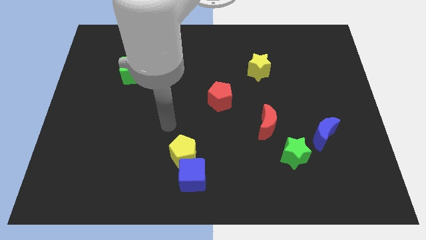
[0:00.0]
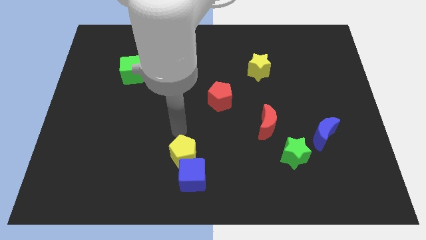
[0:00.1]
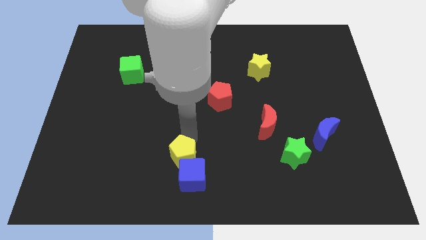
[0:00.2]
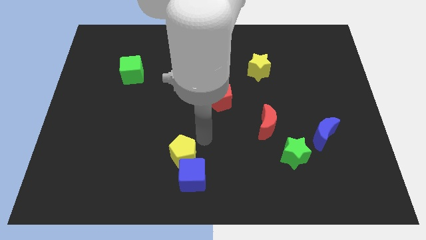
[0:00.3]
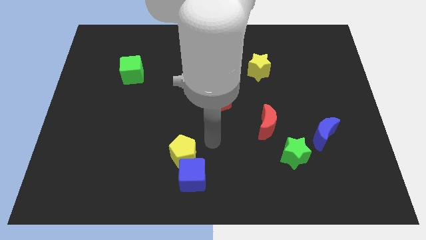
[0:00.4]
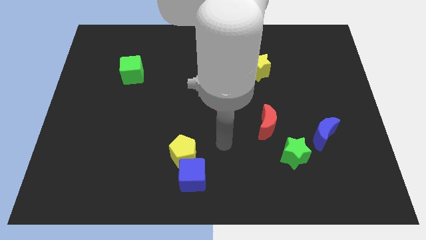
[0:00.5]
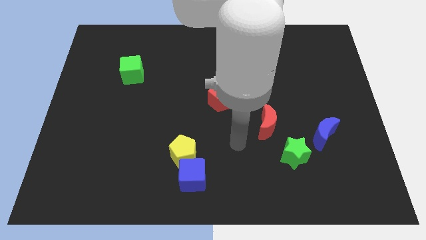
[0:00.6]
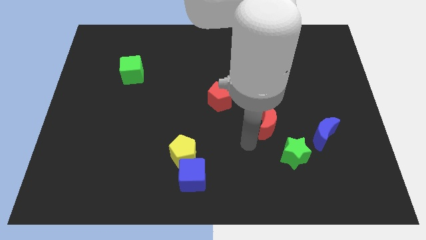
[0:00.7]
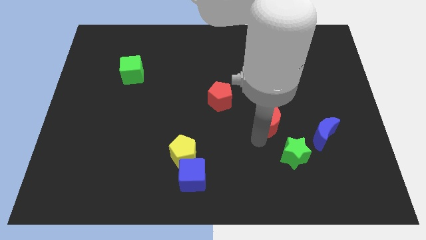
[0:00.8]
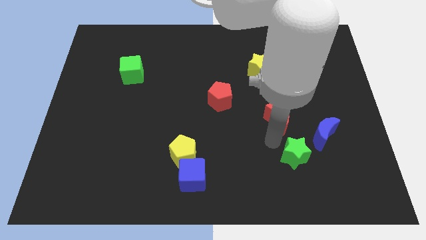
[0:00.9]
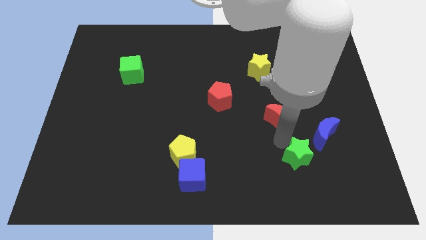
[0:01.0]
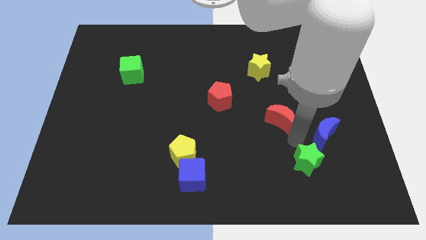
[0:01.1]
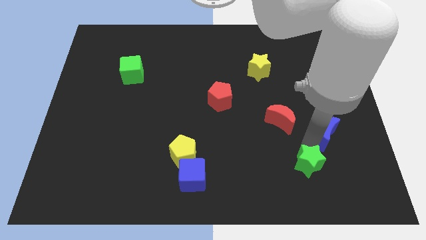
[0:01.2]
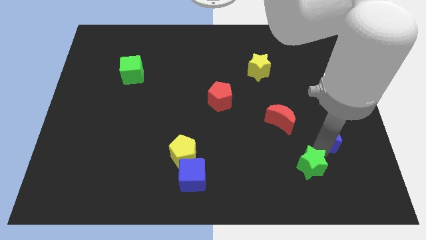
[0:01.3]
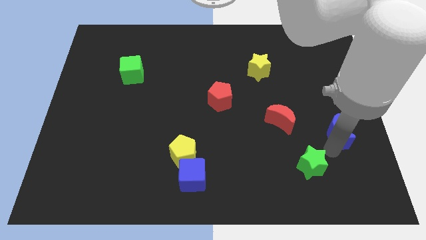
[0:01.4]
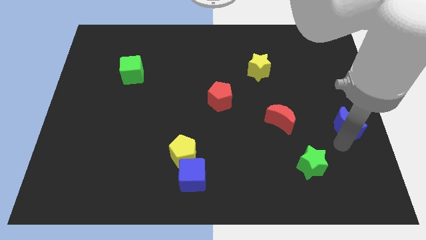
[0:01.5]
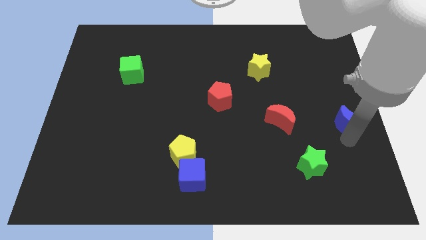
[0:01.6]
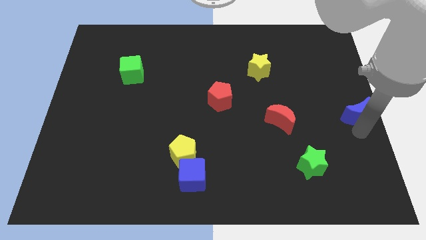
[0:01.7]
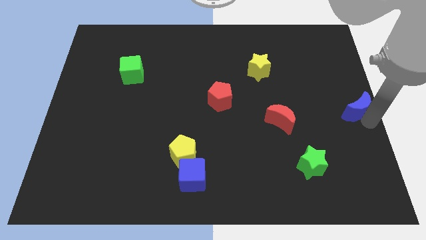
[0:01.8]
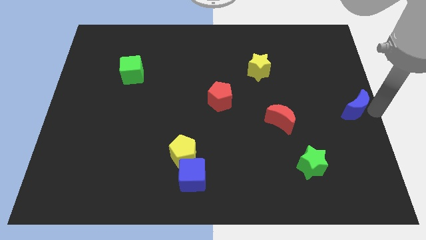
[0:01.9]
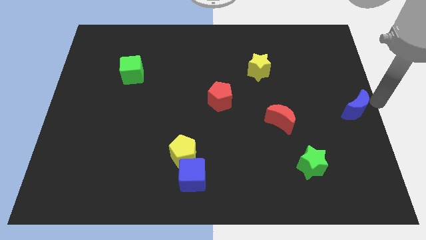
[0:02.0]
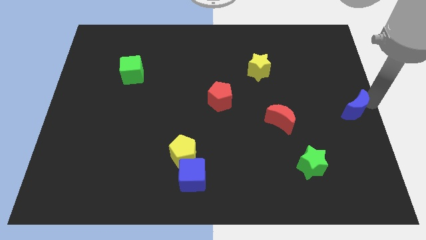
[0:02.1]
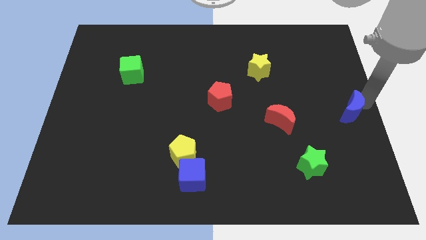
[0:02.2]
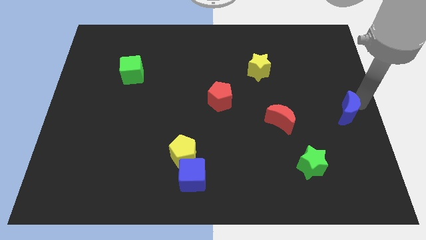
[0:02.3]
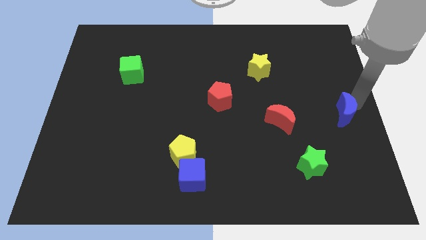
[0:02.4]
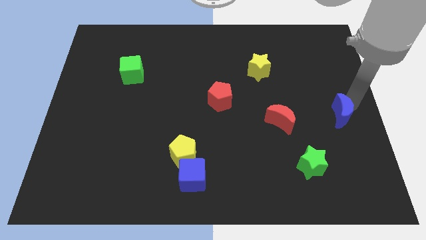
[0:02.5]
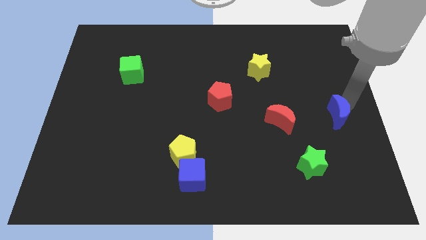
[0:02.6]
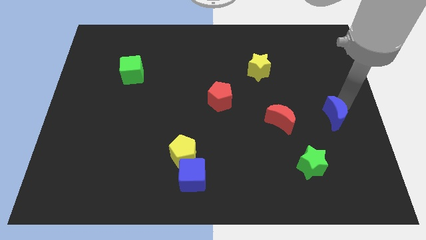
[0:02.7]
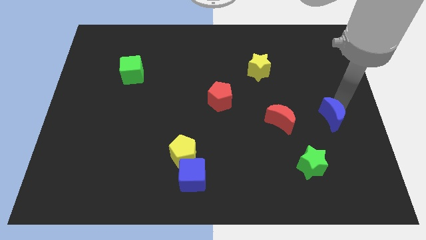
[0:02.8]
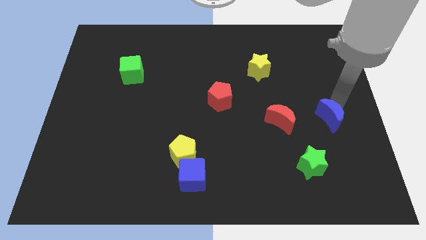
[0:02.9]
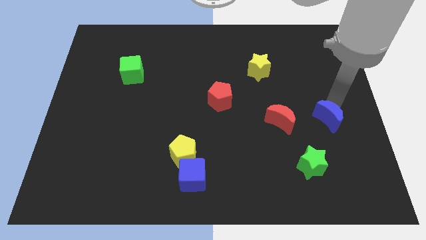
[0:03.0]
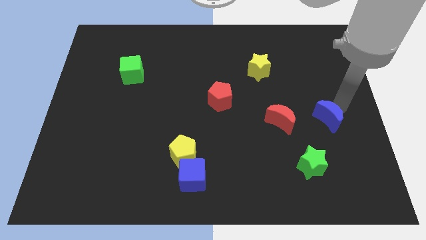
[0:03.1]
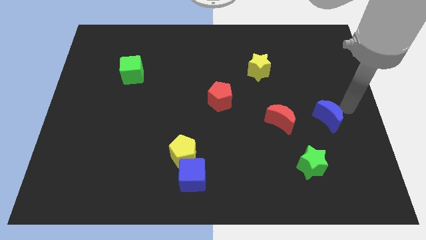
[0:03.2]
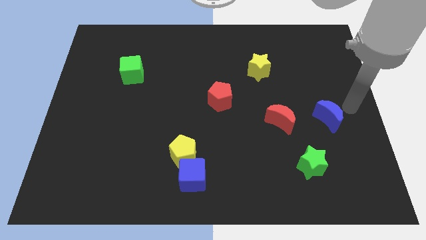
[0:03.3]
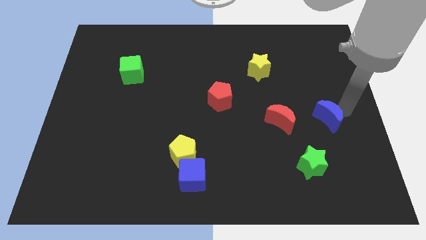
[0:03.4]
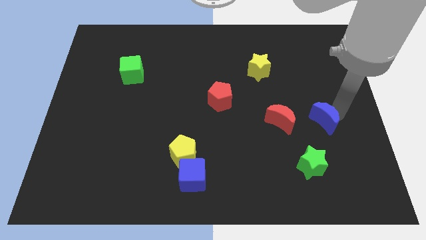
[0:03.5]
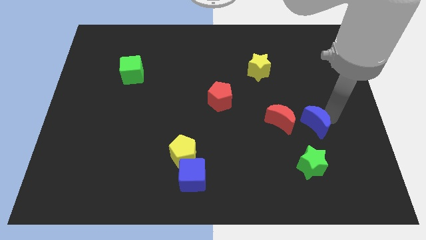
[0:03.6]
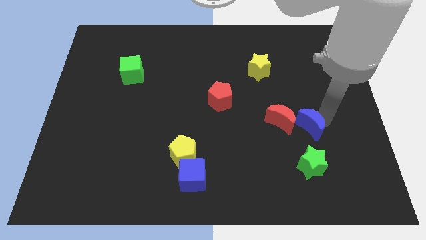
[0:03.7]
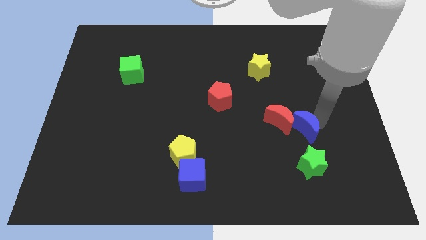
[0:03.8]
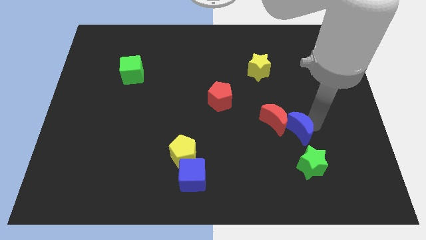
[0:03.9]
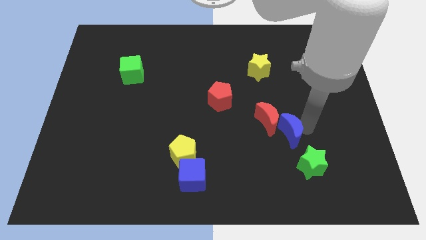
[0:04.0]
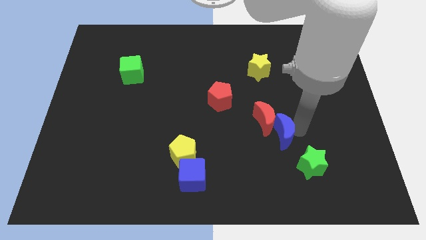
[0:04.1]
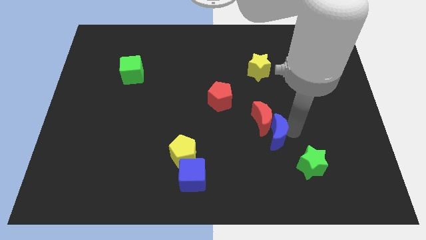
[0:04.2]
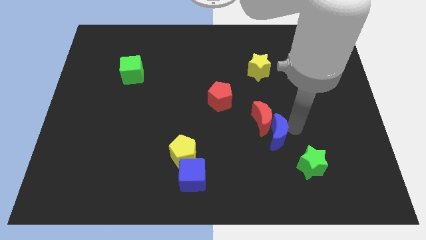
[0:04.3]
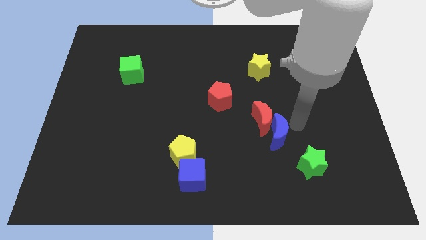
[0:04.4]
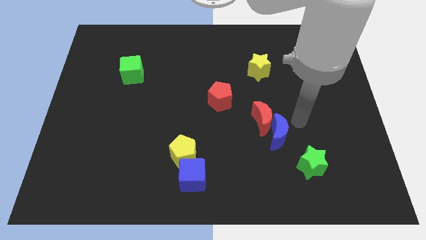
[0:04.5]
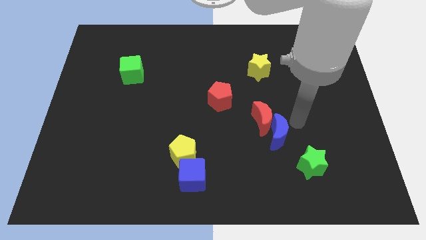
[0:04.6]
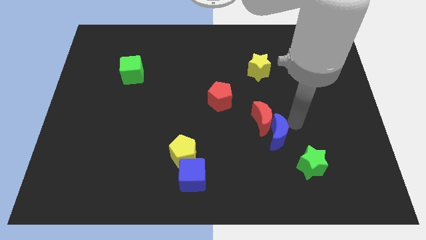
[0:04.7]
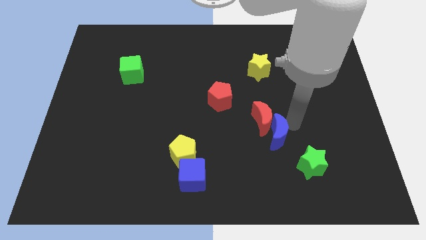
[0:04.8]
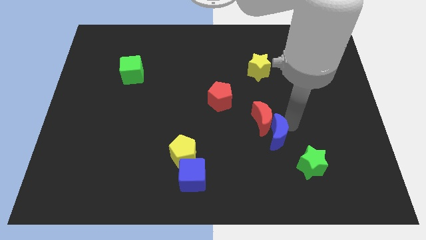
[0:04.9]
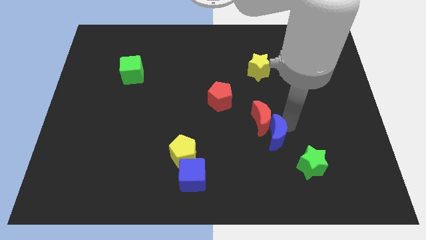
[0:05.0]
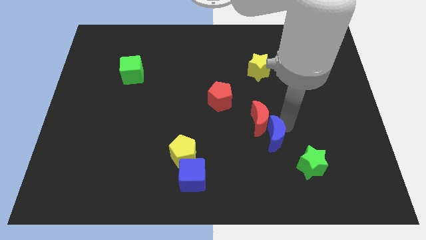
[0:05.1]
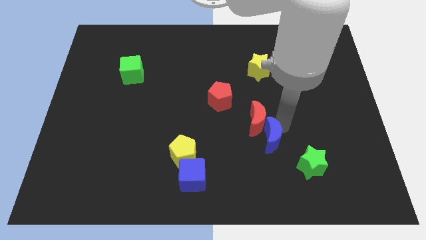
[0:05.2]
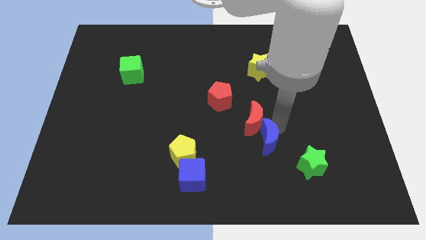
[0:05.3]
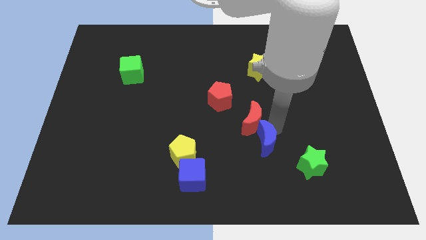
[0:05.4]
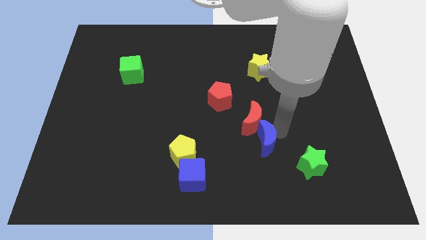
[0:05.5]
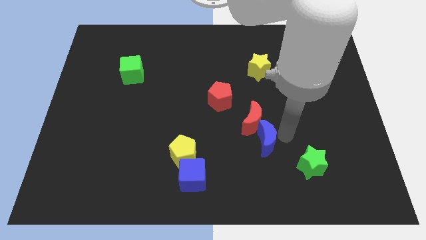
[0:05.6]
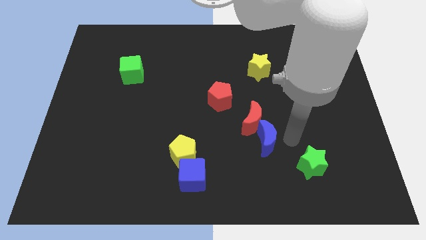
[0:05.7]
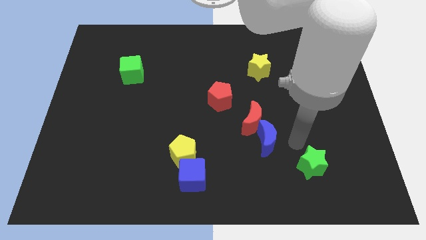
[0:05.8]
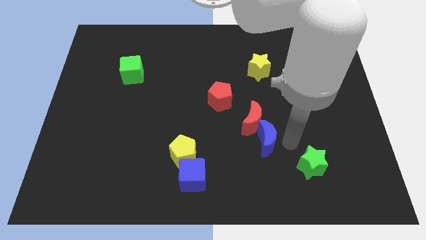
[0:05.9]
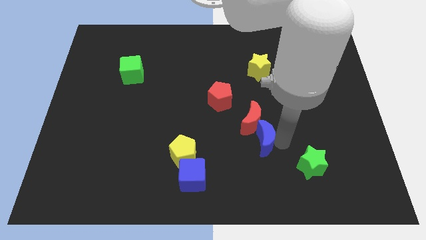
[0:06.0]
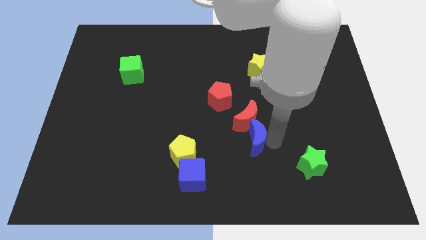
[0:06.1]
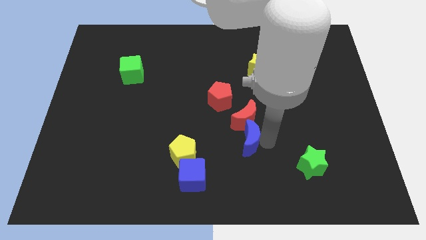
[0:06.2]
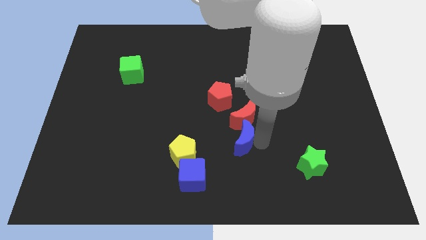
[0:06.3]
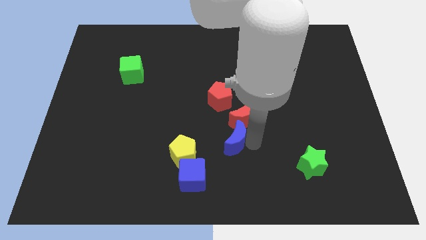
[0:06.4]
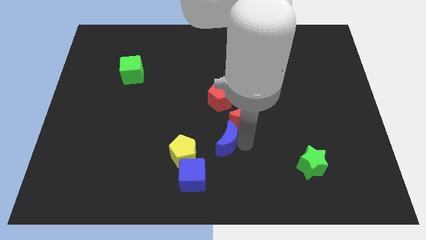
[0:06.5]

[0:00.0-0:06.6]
slide the blue moon to the left

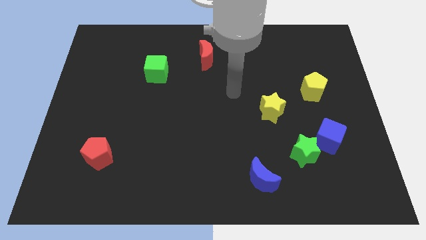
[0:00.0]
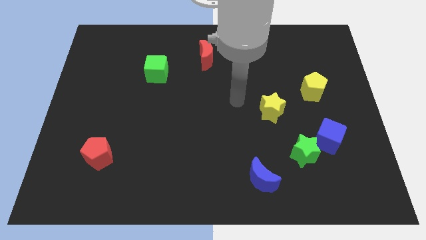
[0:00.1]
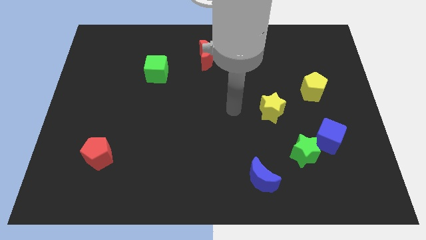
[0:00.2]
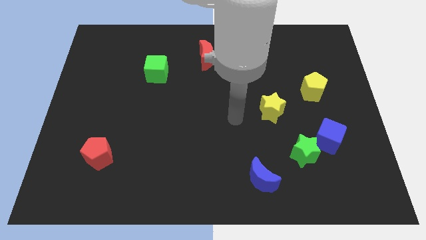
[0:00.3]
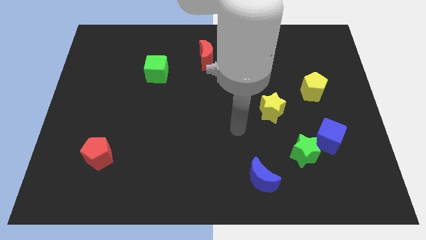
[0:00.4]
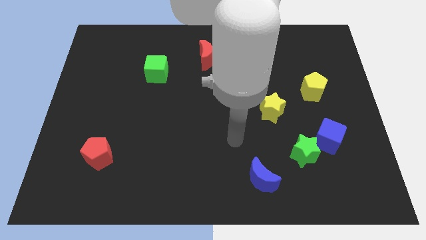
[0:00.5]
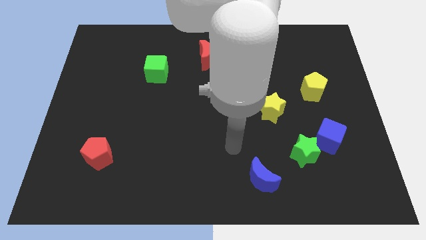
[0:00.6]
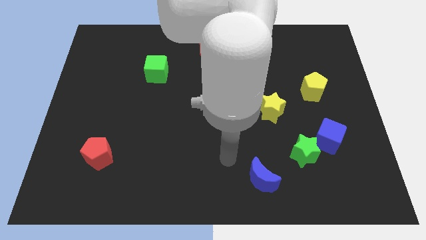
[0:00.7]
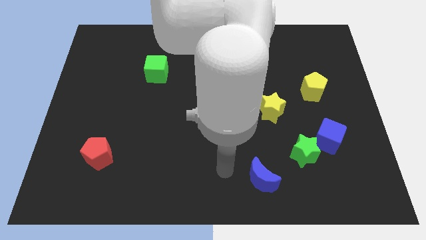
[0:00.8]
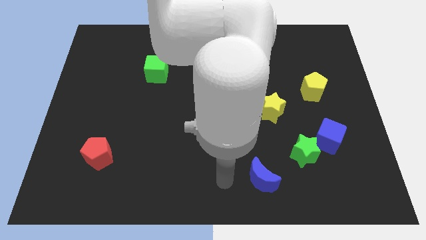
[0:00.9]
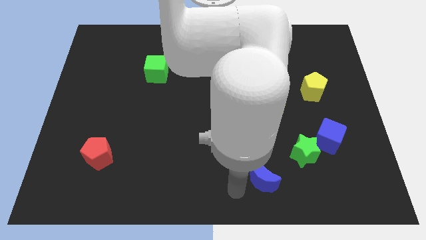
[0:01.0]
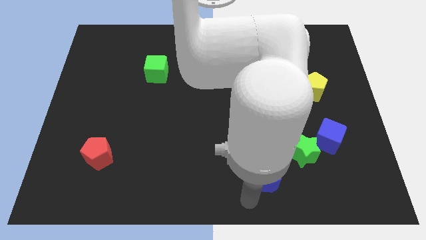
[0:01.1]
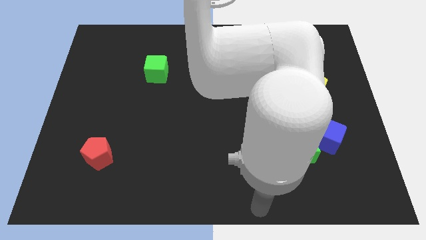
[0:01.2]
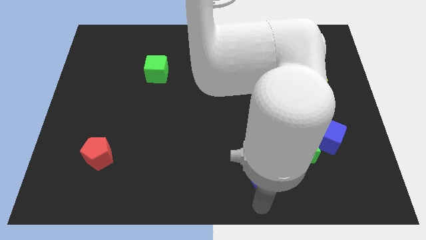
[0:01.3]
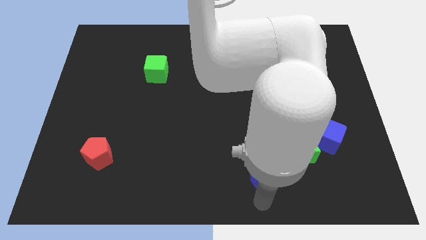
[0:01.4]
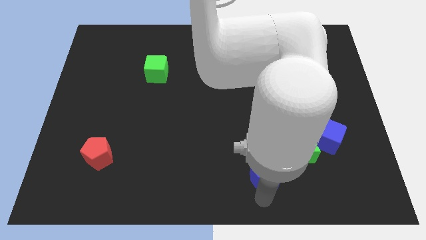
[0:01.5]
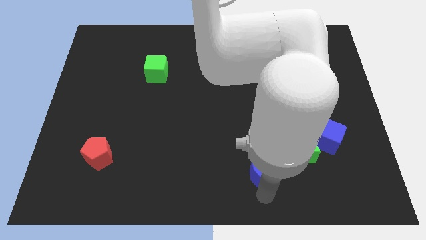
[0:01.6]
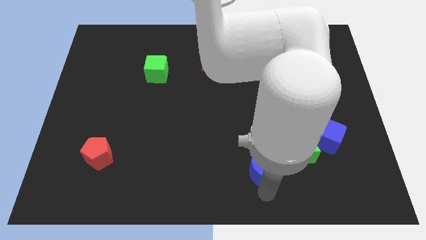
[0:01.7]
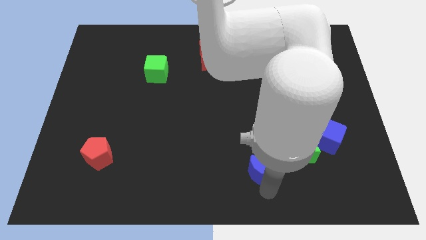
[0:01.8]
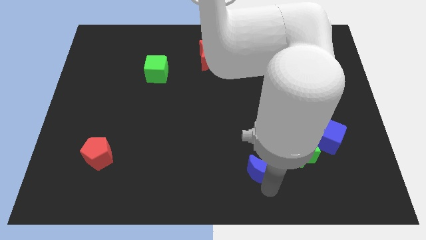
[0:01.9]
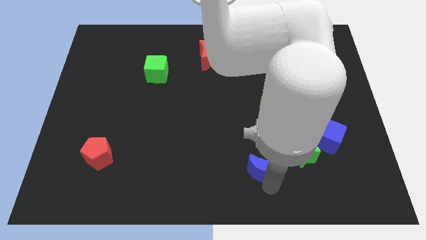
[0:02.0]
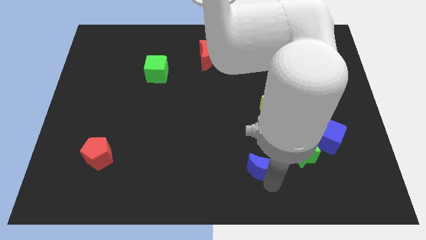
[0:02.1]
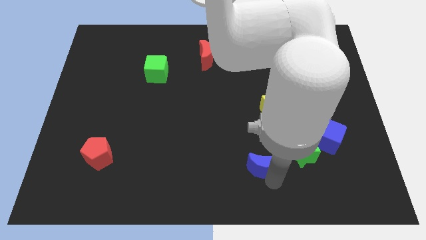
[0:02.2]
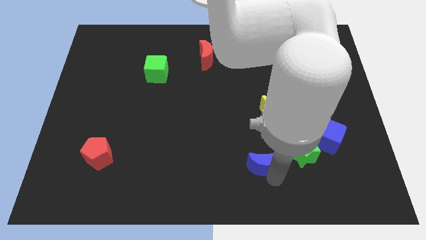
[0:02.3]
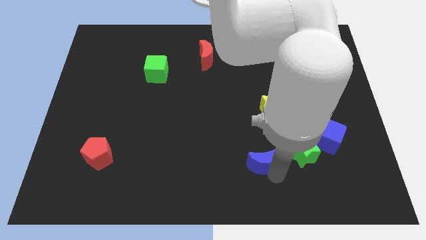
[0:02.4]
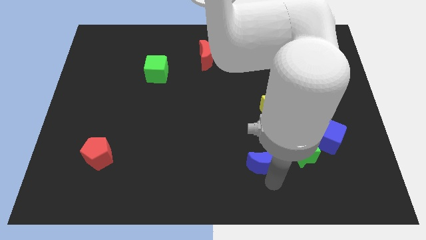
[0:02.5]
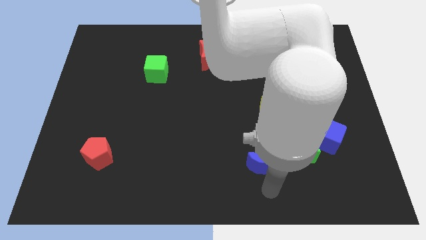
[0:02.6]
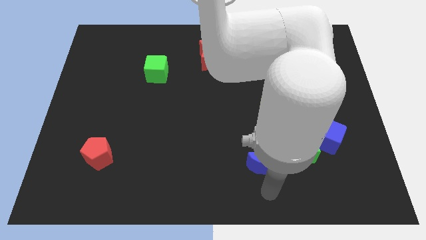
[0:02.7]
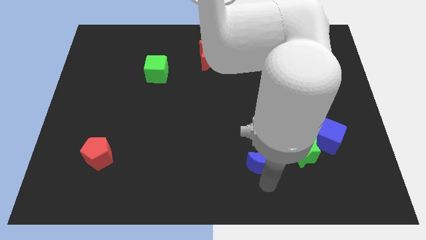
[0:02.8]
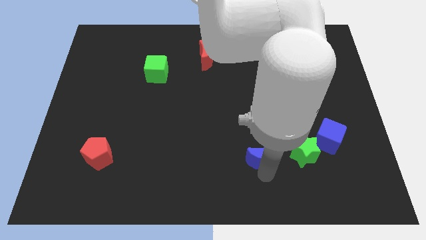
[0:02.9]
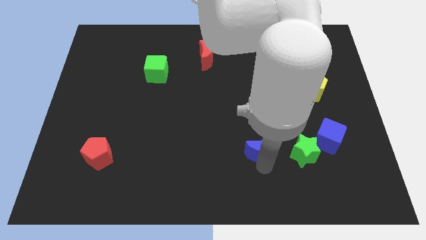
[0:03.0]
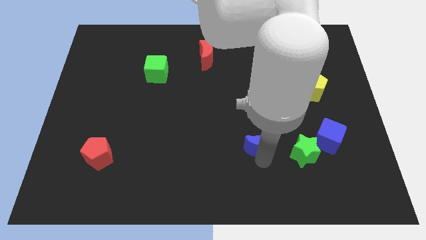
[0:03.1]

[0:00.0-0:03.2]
slide the blue moon somewhat up
